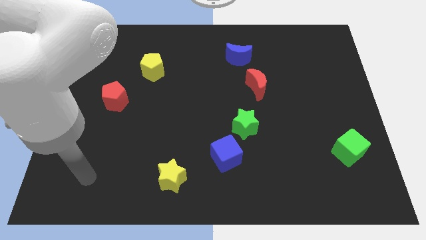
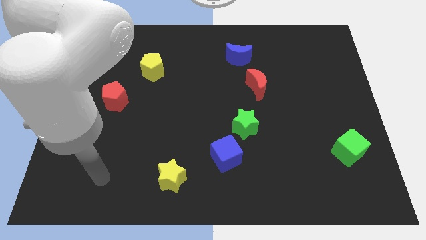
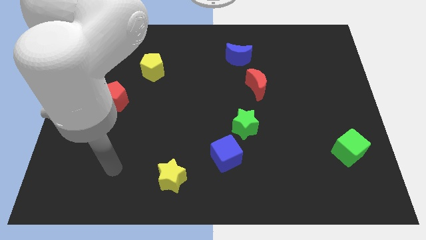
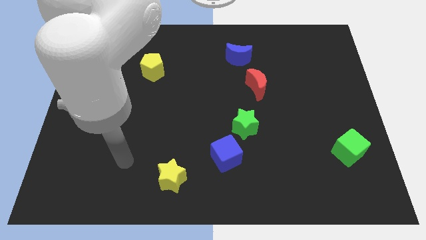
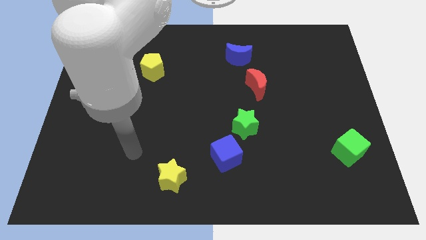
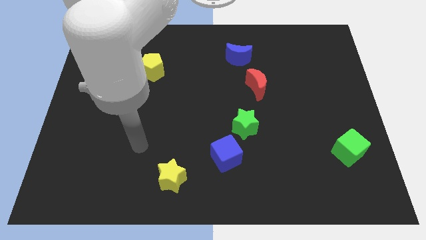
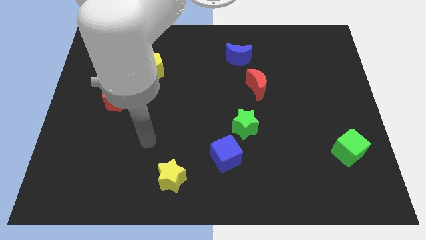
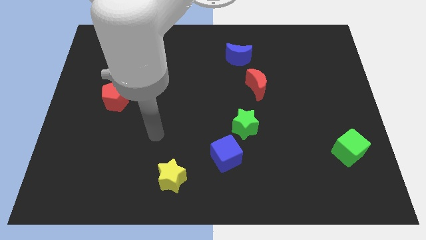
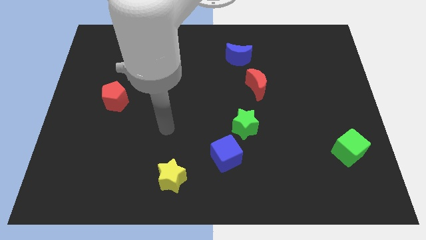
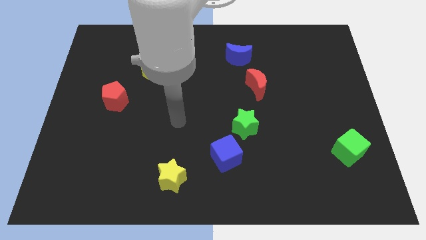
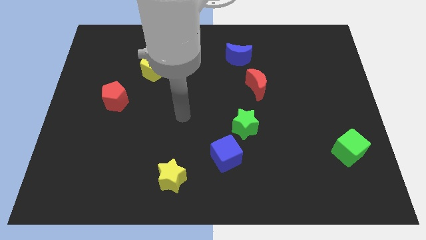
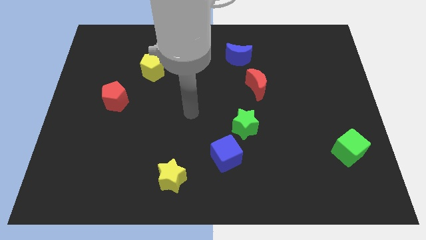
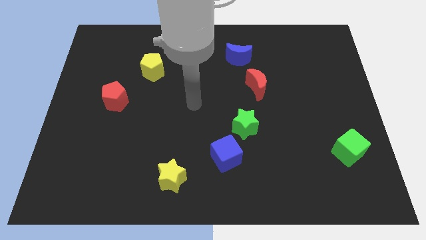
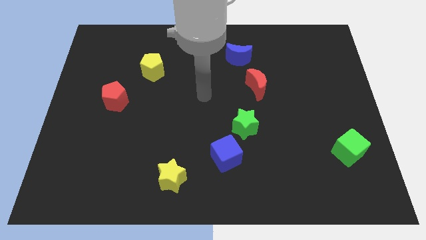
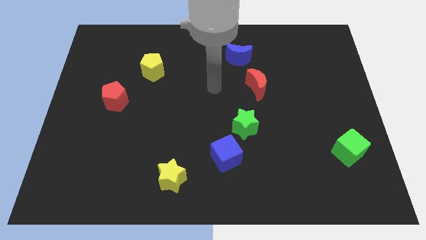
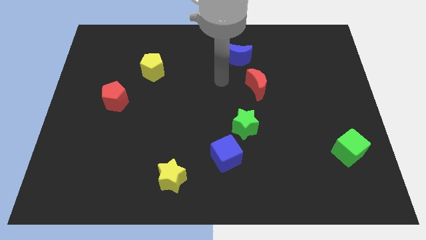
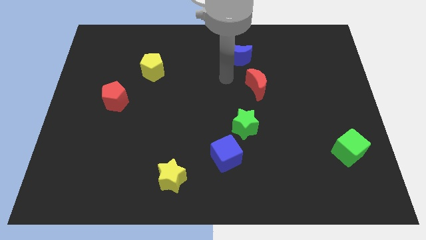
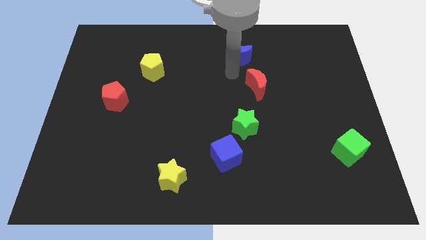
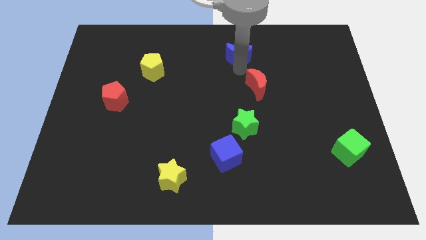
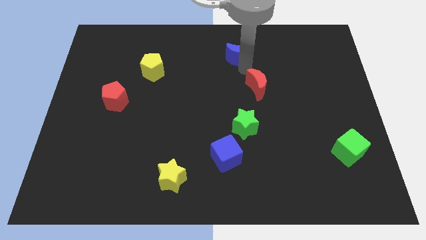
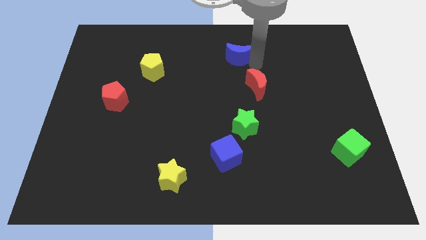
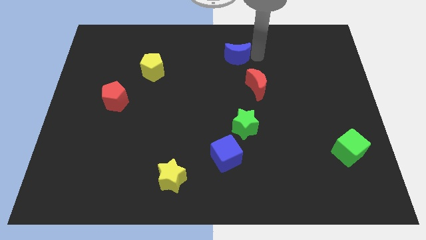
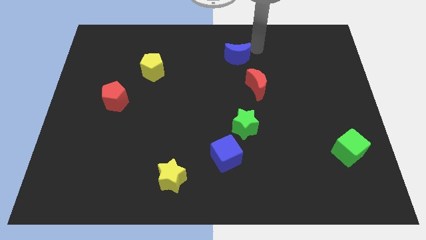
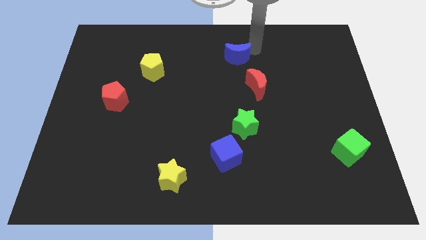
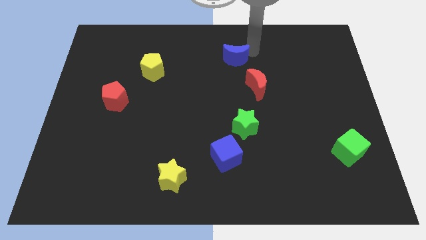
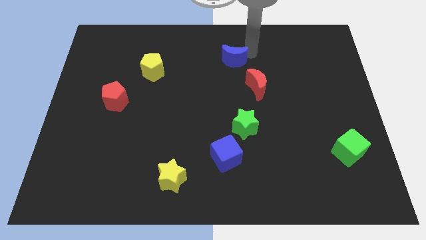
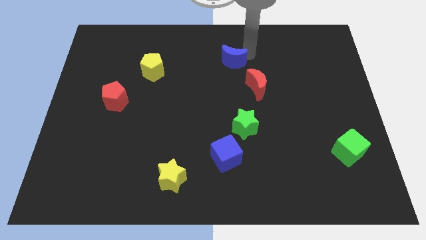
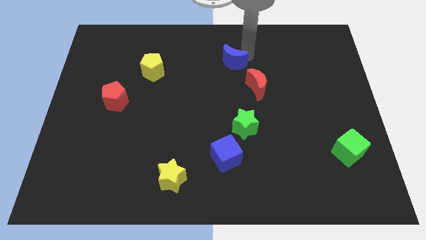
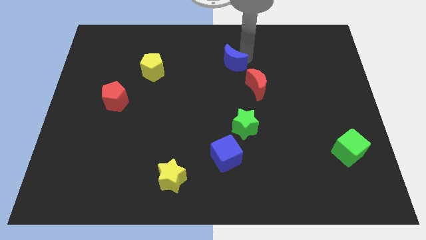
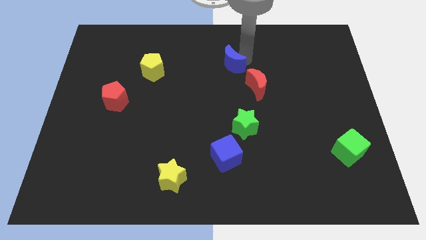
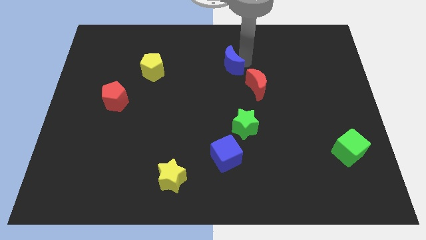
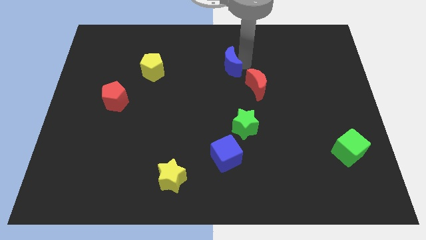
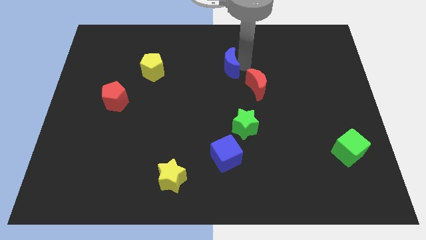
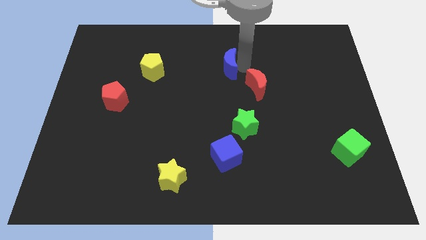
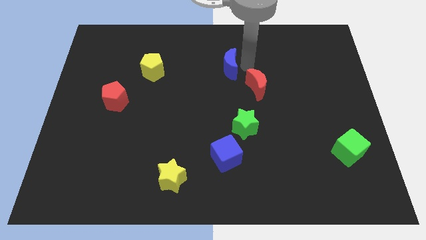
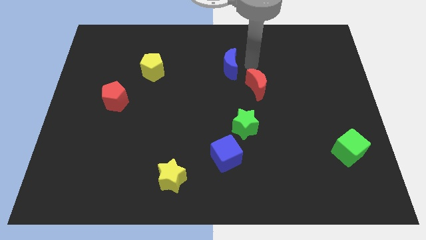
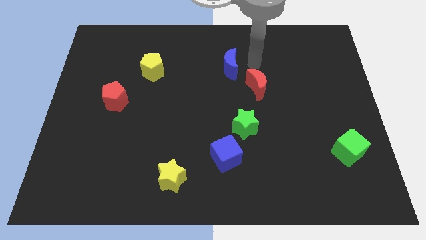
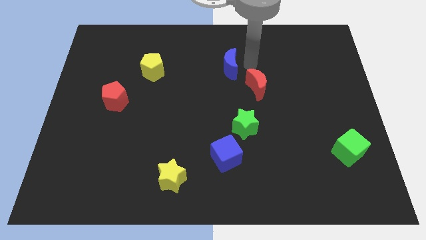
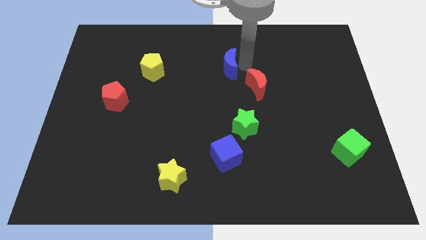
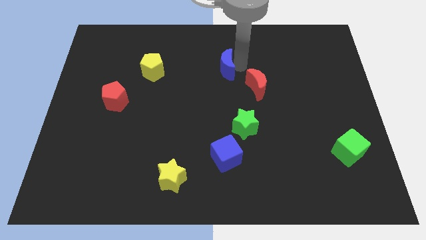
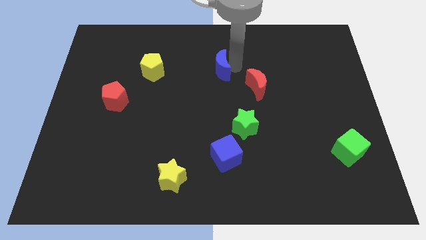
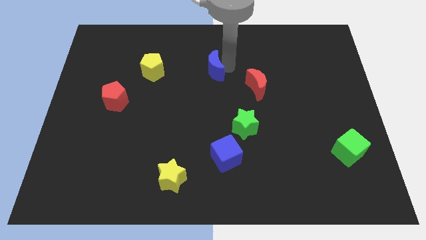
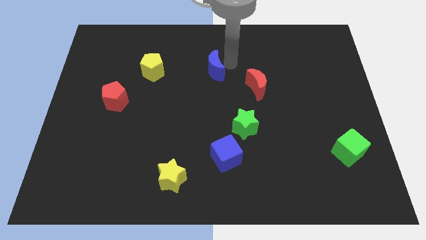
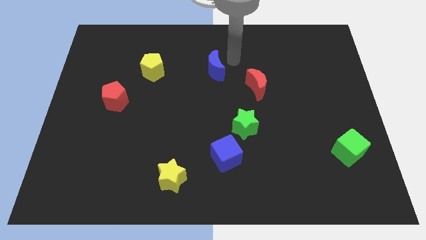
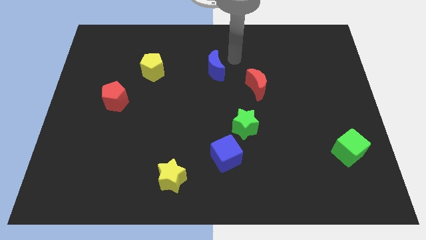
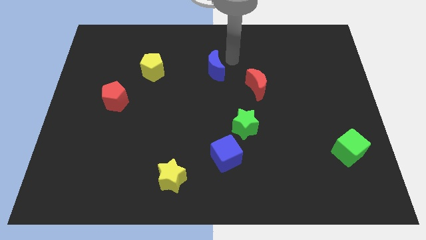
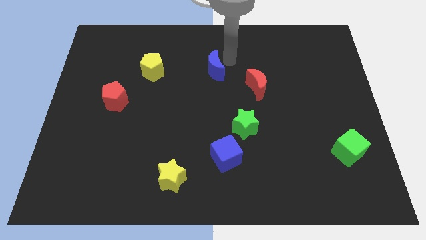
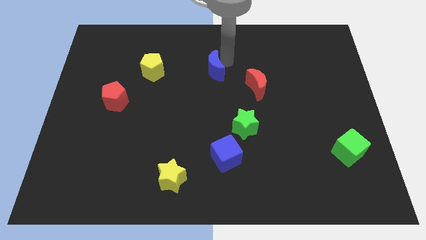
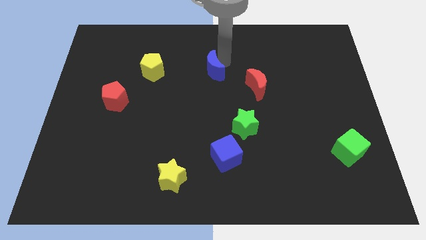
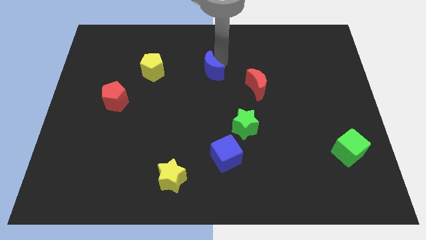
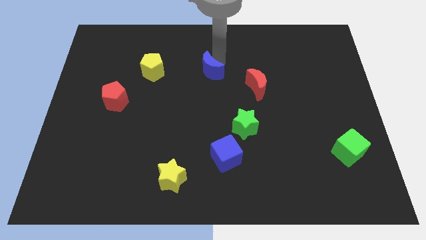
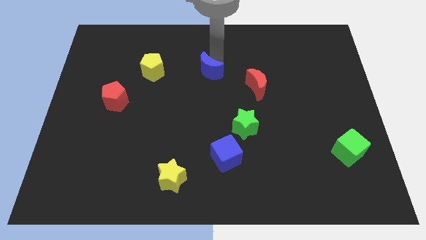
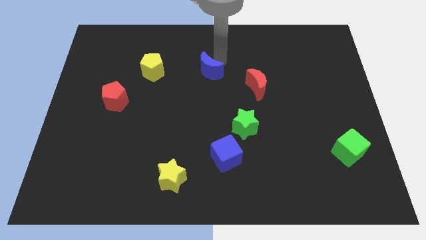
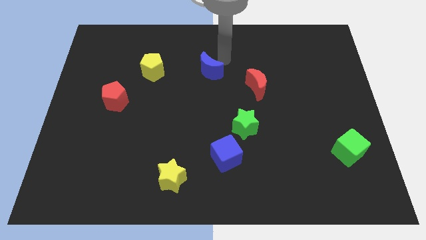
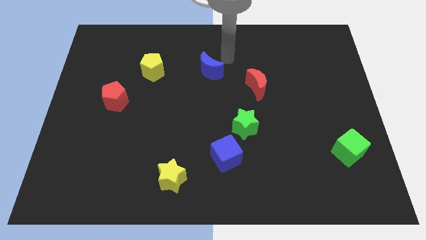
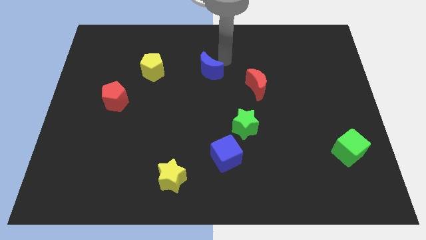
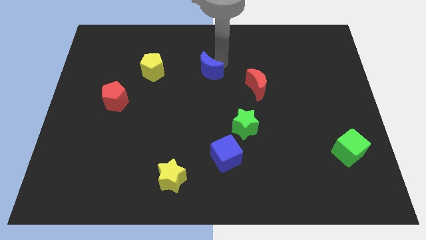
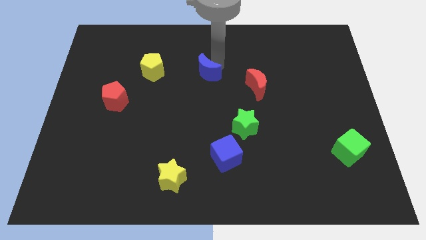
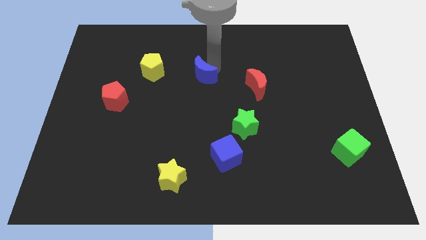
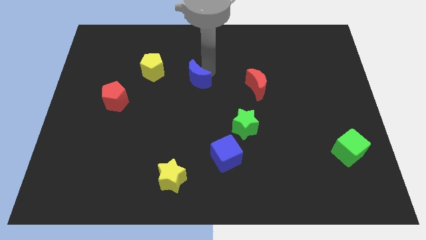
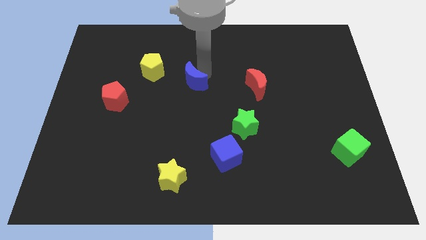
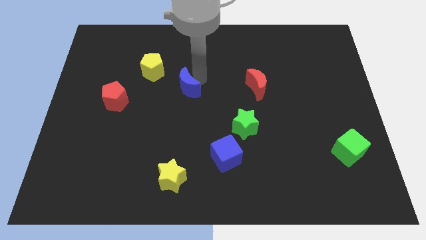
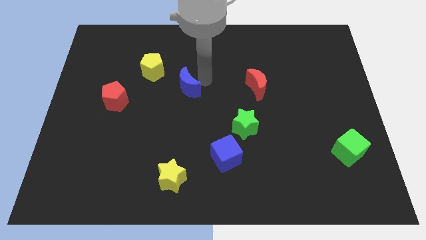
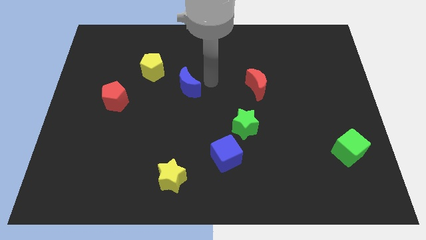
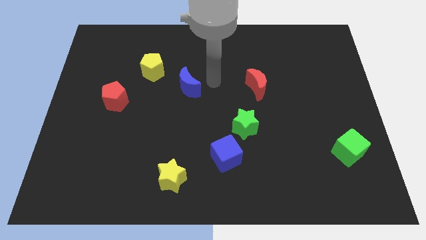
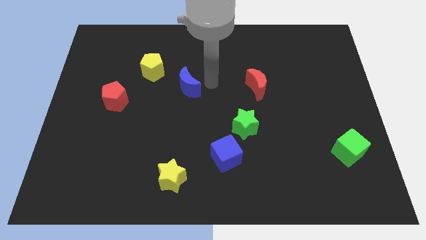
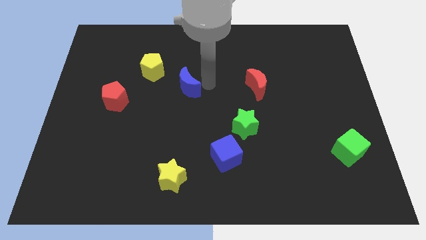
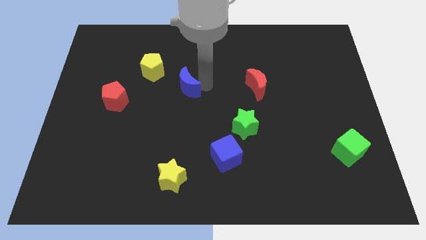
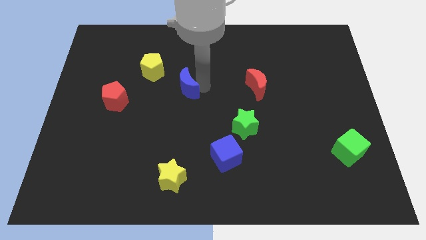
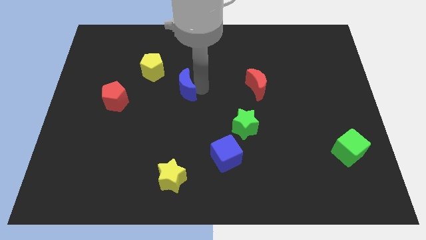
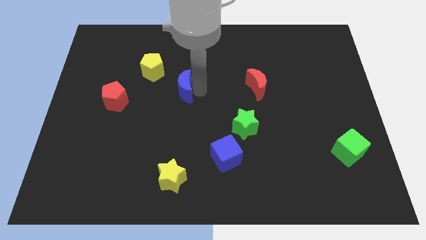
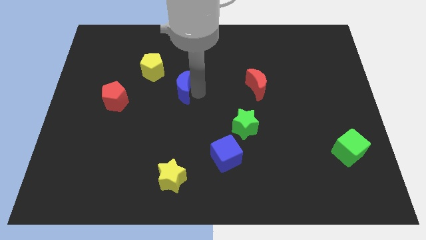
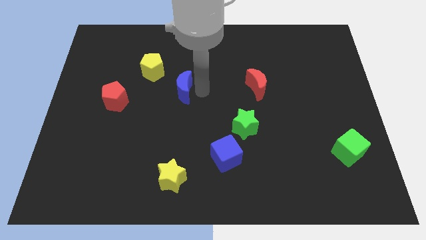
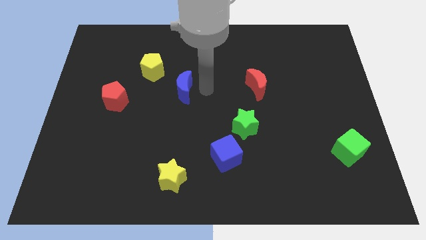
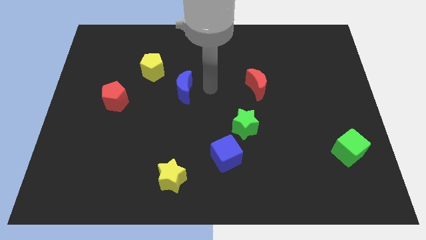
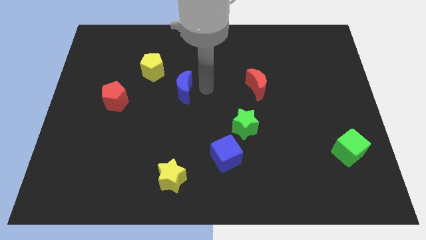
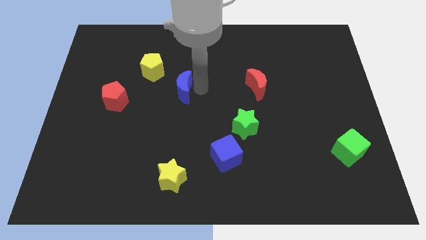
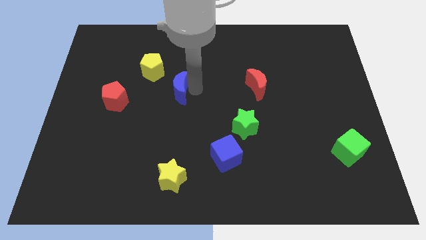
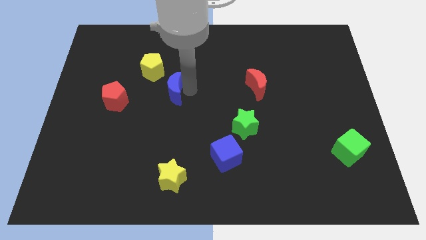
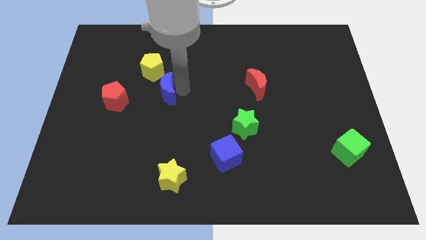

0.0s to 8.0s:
put the blue moon below the yellow pentagon
